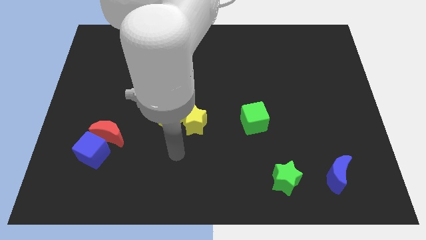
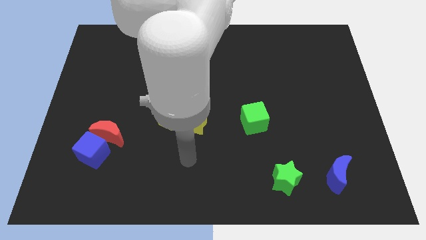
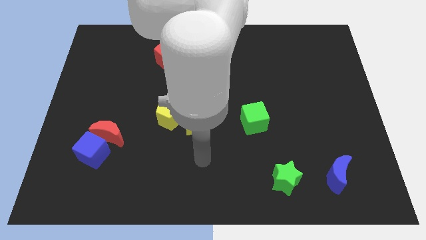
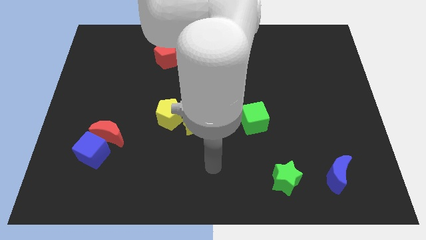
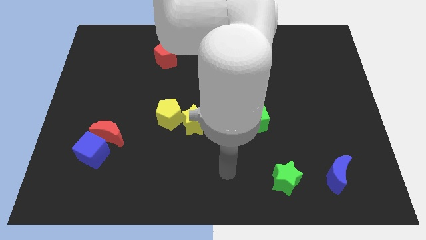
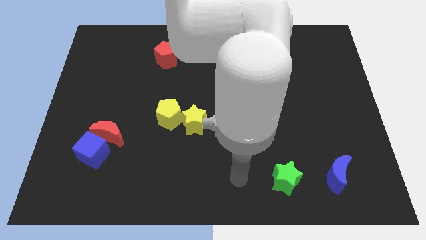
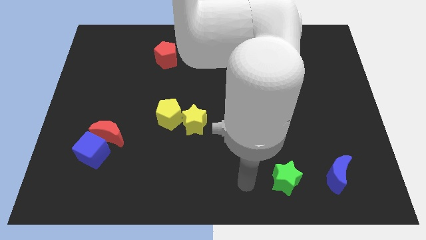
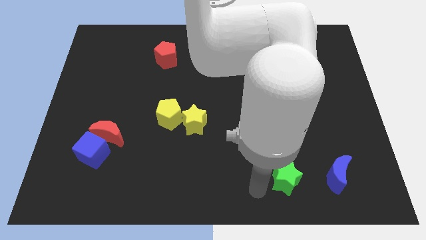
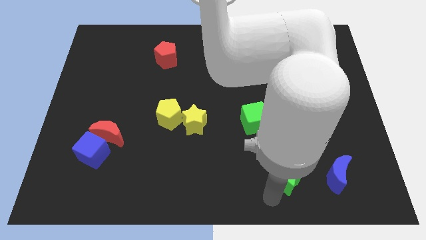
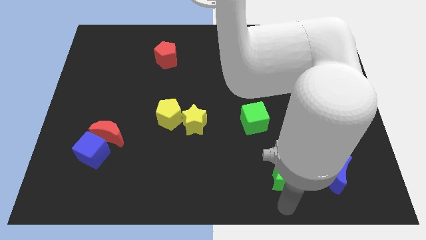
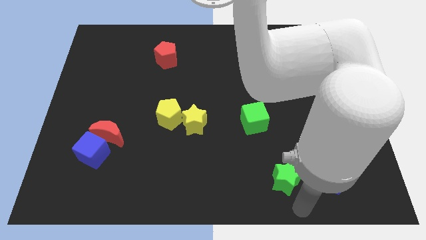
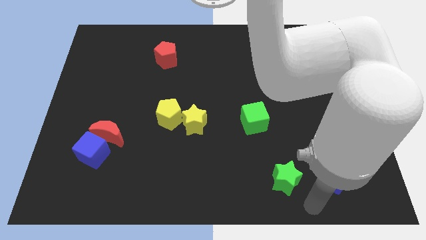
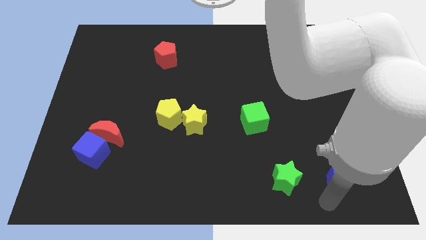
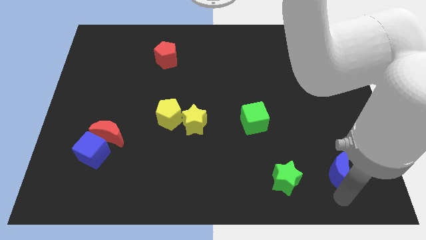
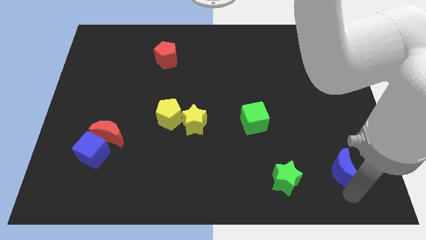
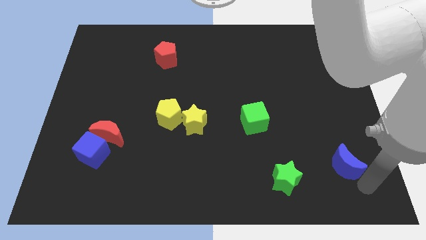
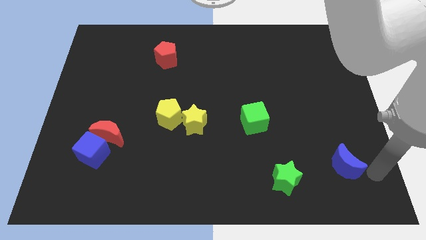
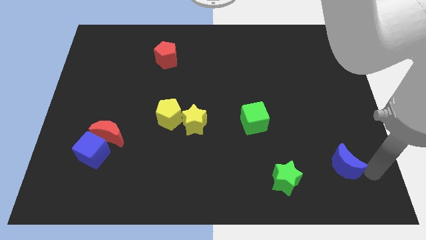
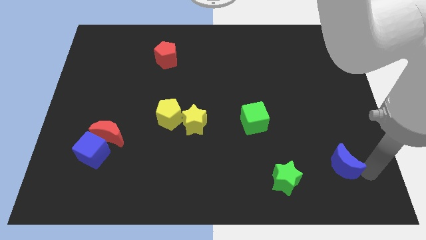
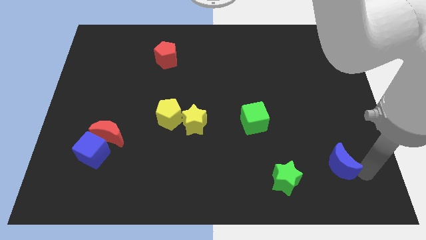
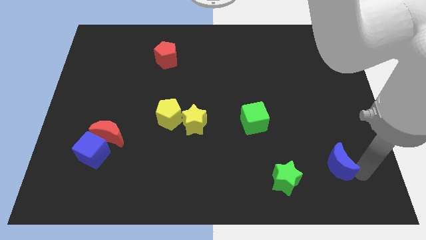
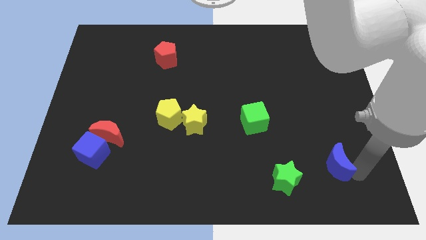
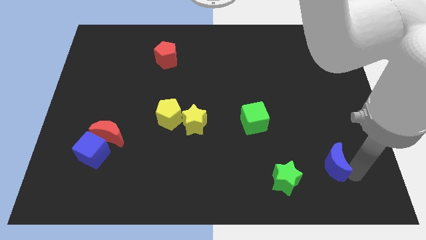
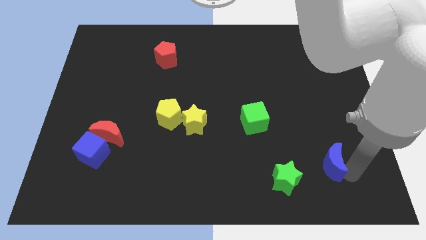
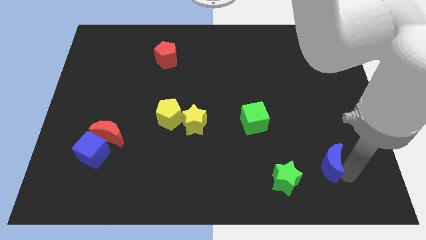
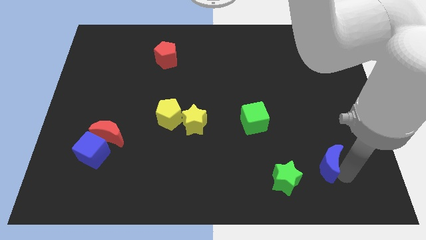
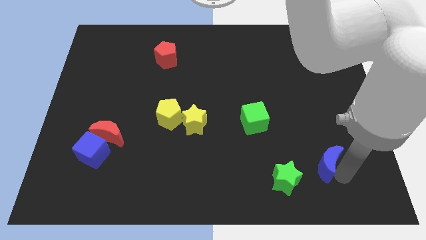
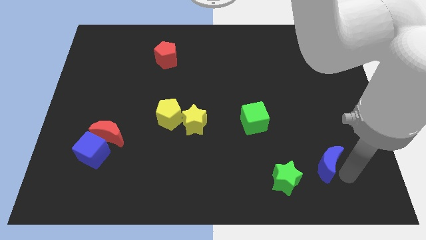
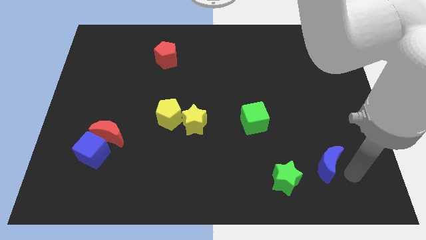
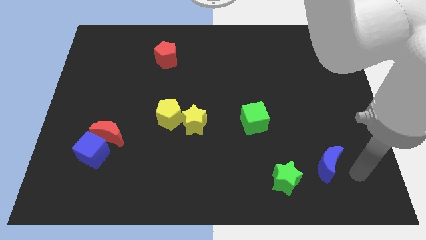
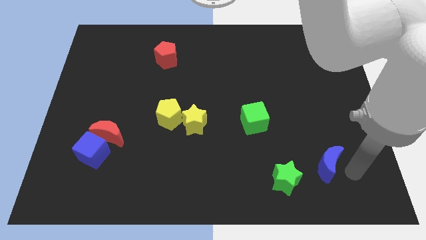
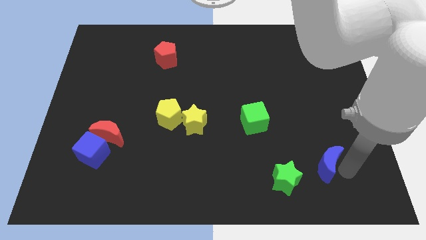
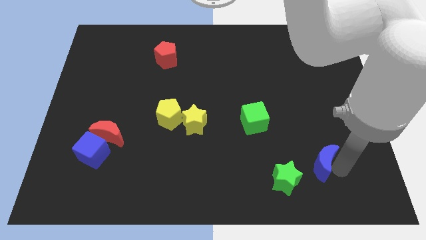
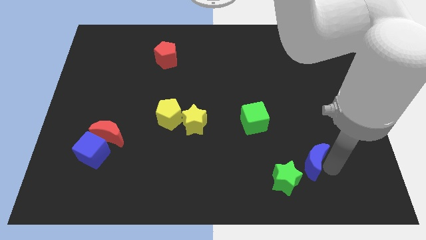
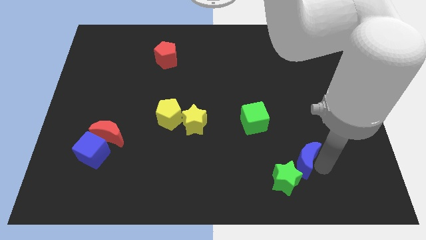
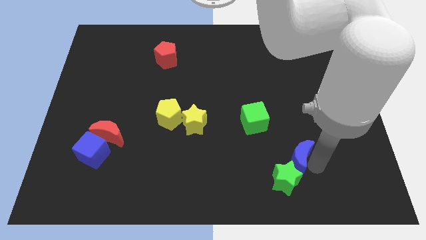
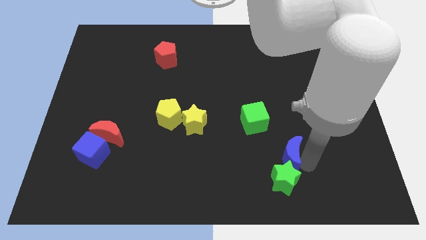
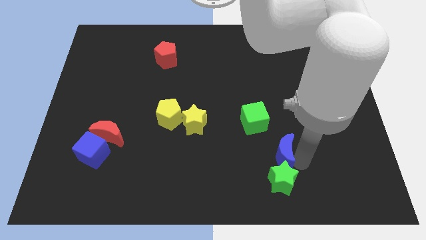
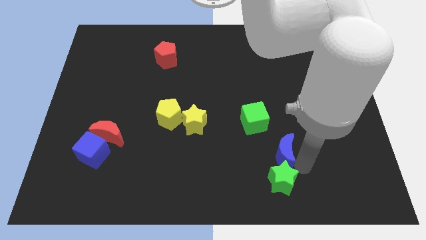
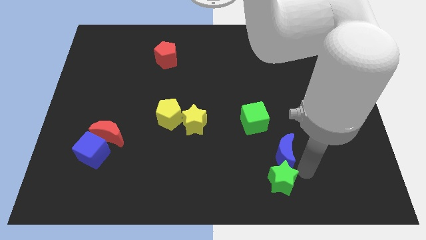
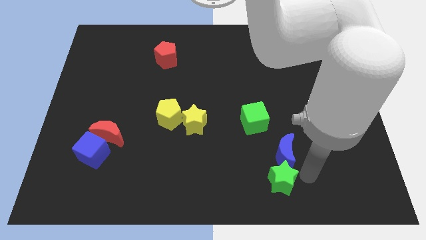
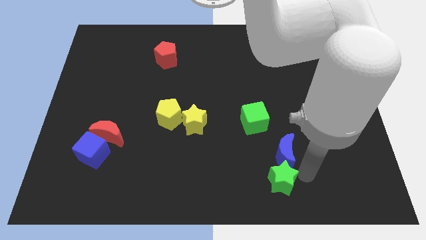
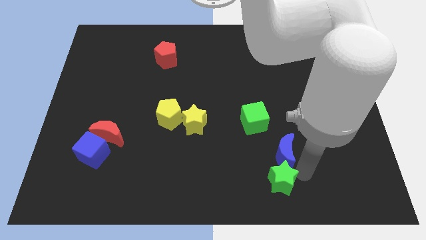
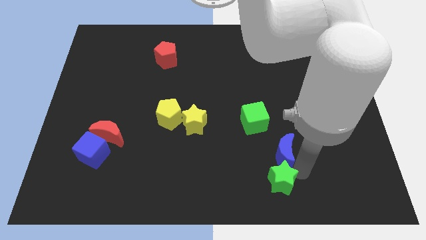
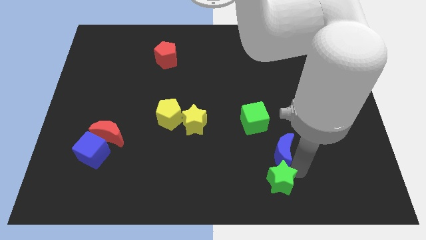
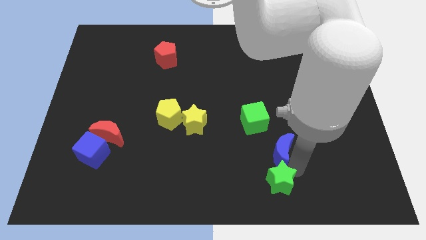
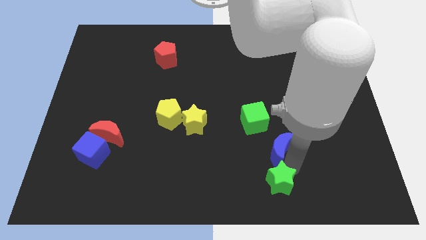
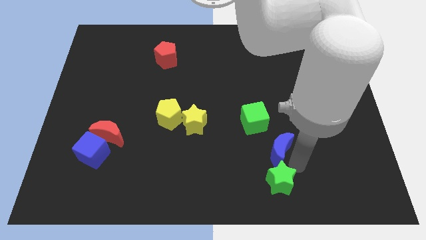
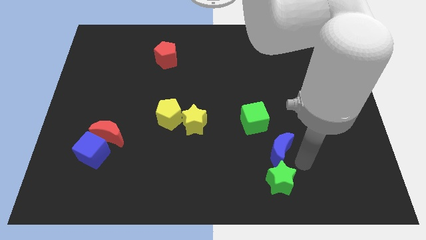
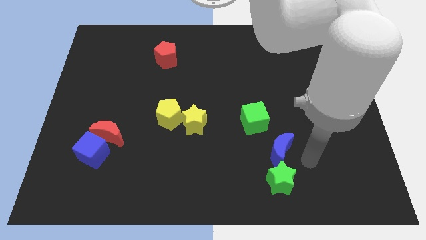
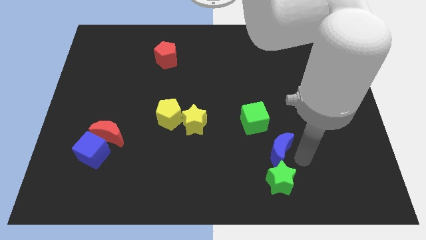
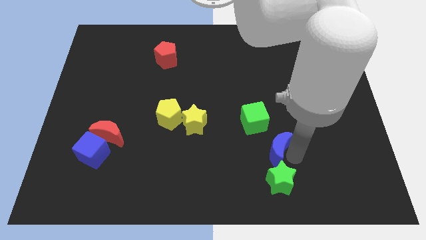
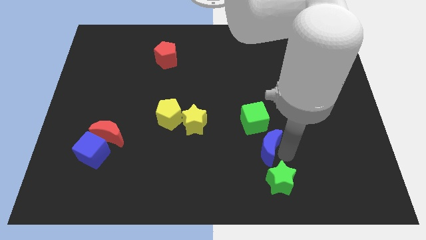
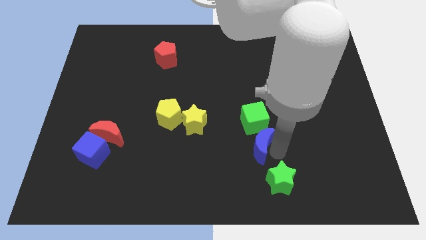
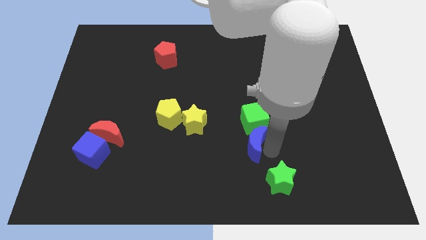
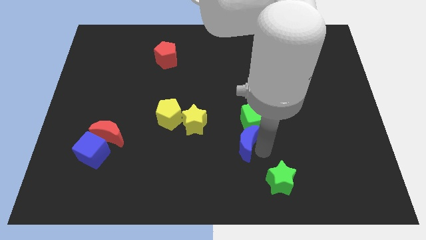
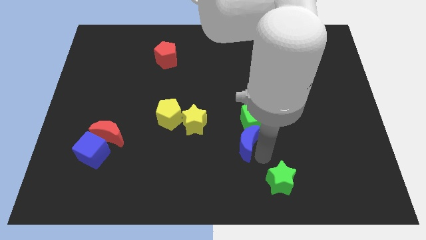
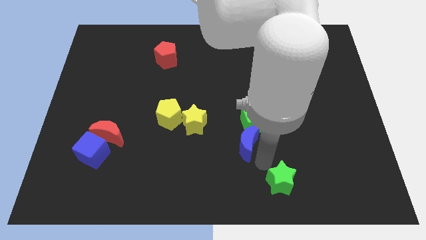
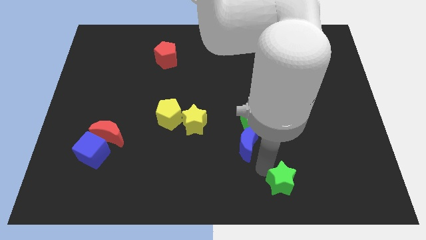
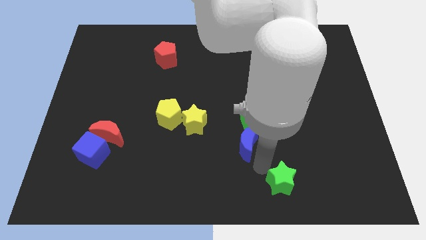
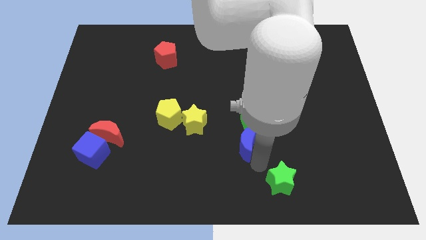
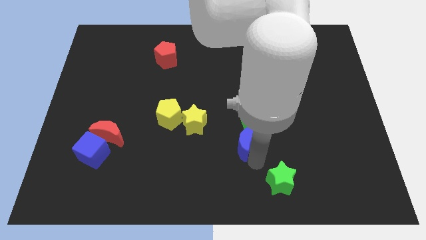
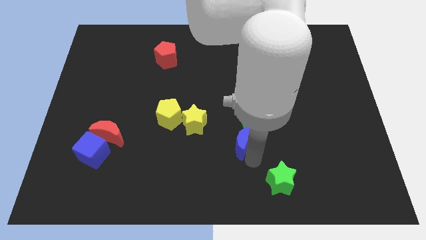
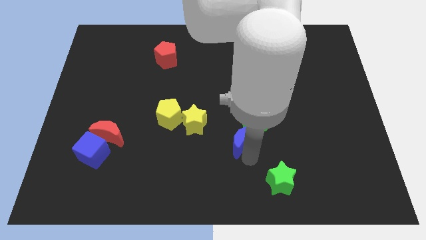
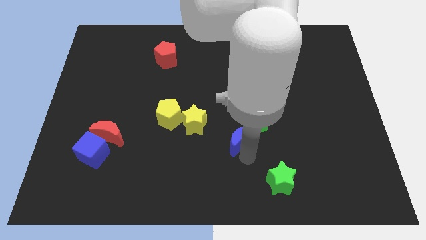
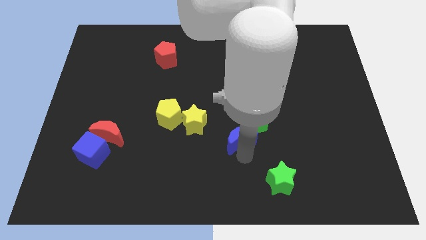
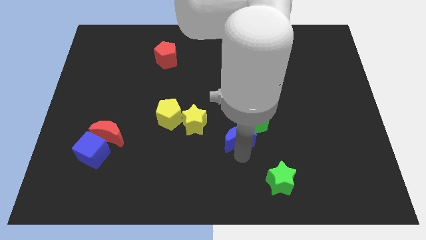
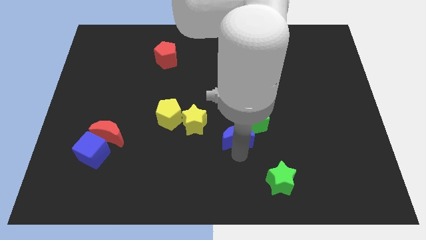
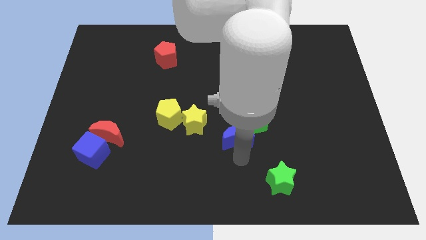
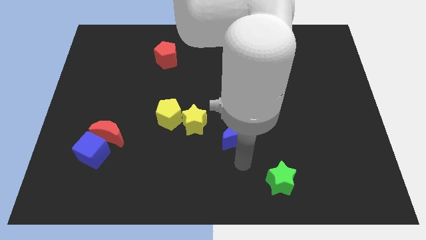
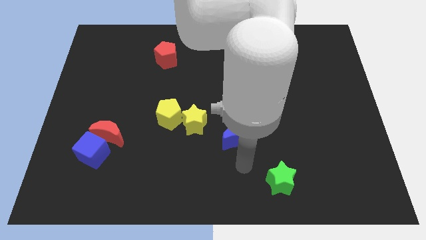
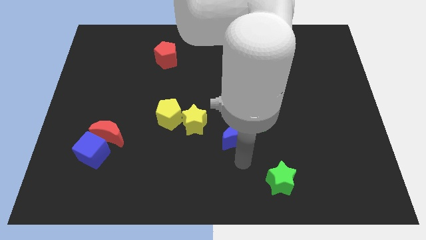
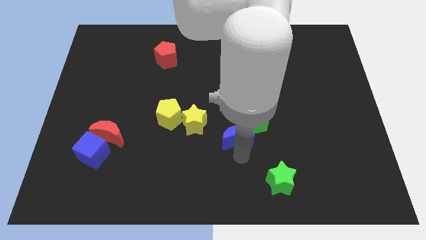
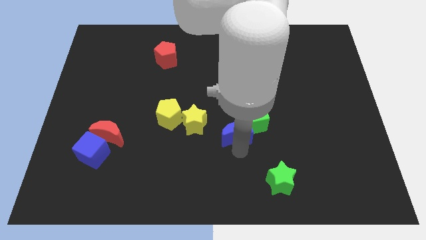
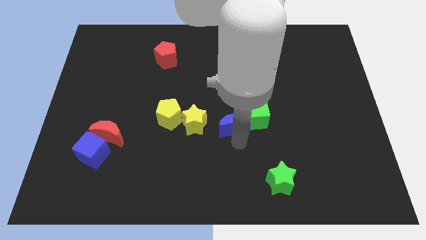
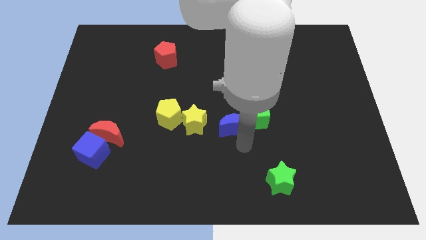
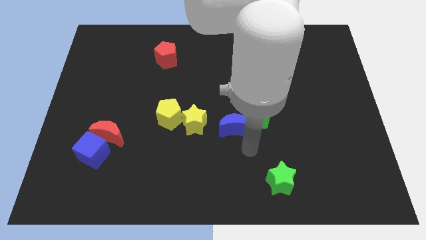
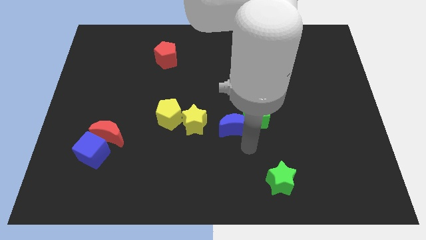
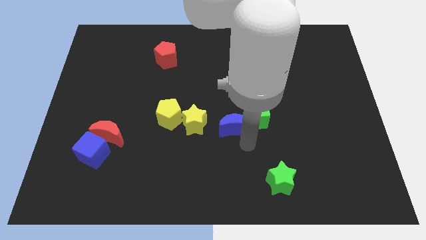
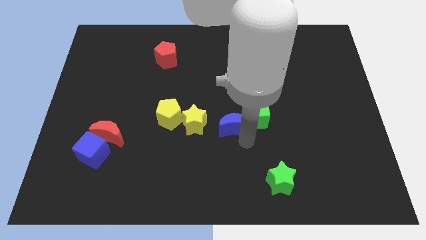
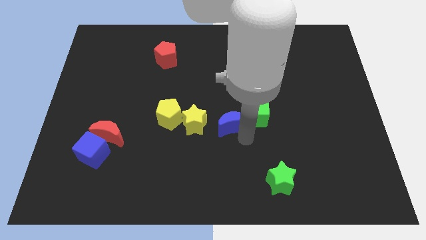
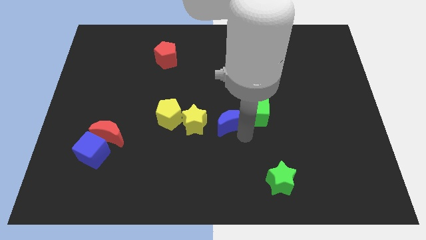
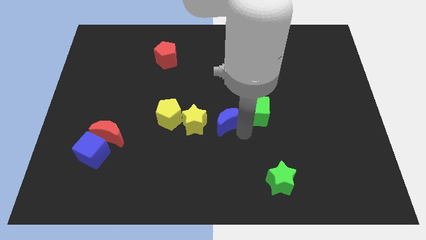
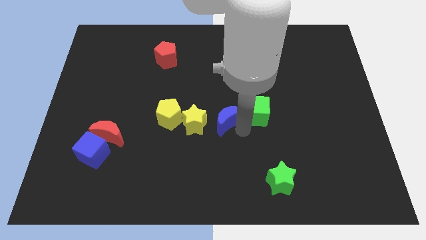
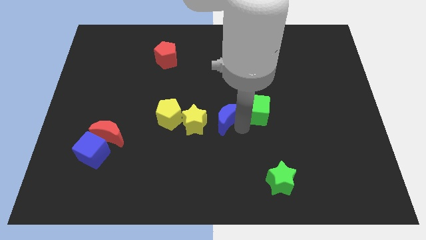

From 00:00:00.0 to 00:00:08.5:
move the blue moon to the top right of the yellow star
